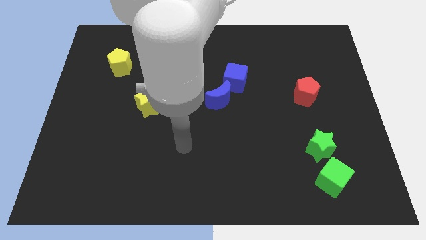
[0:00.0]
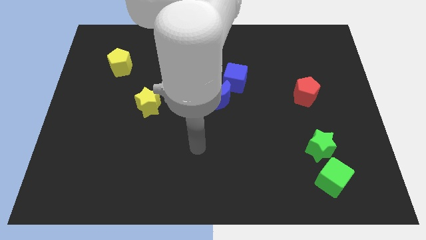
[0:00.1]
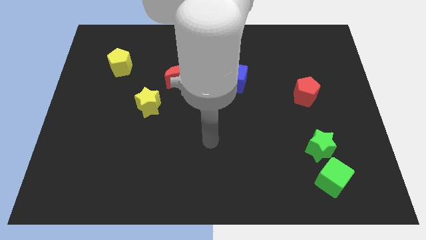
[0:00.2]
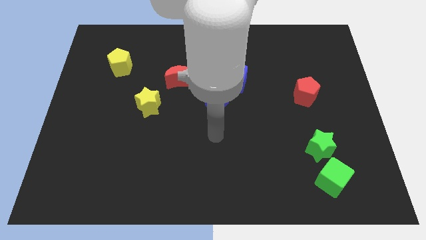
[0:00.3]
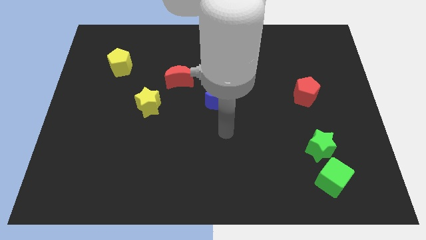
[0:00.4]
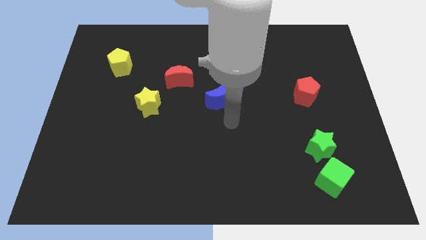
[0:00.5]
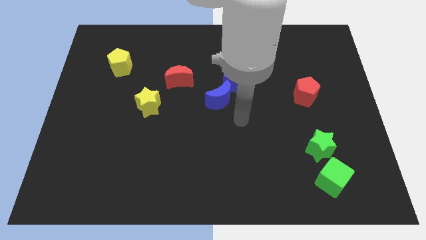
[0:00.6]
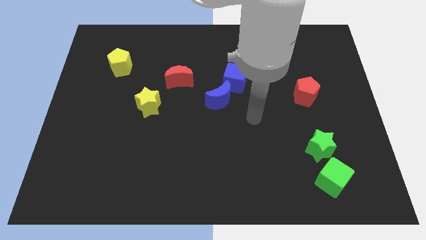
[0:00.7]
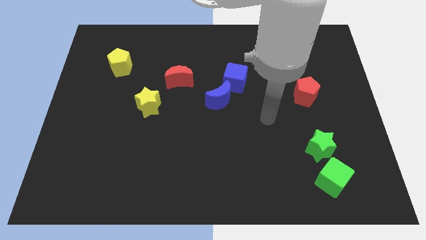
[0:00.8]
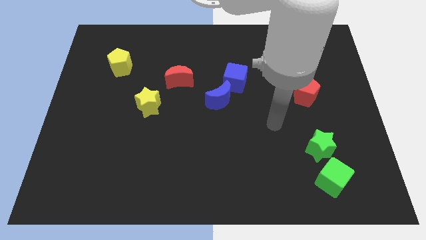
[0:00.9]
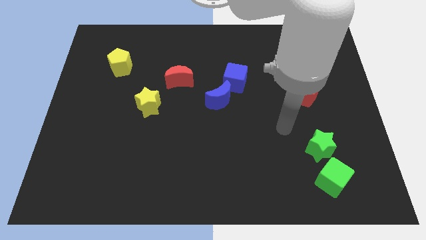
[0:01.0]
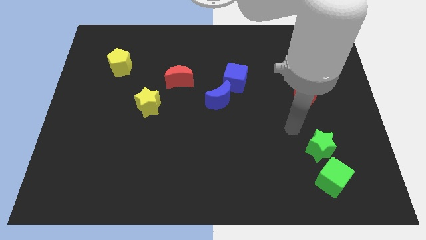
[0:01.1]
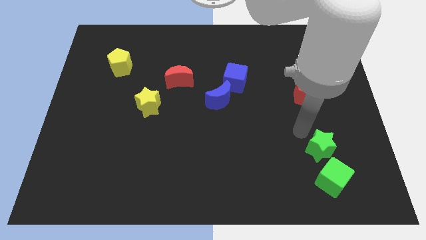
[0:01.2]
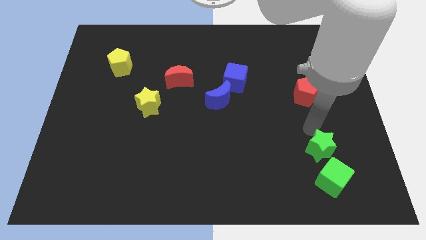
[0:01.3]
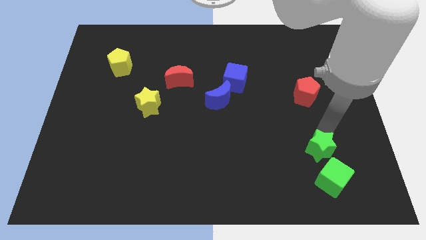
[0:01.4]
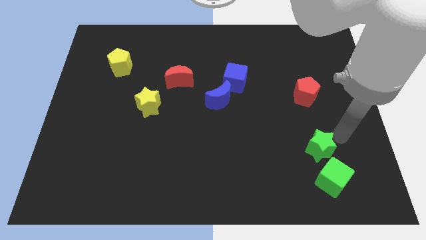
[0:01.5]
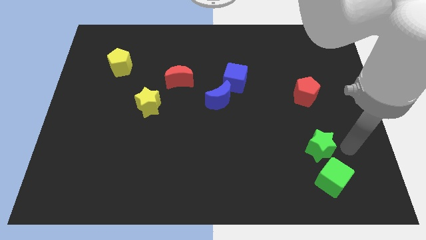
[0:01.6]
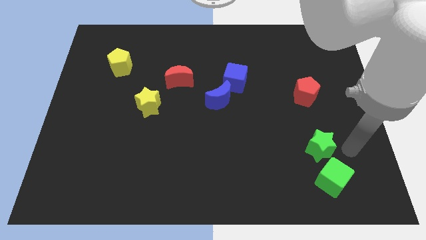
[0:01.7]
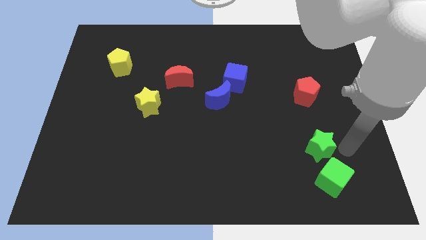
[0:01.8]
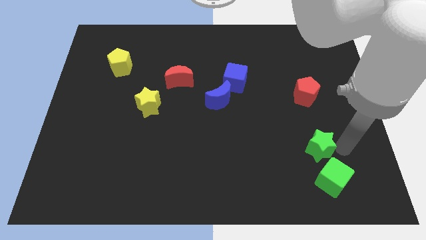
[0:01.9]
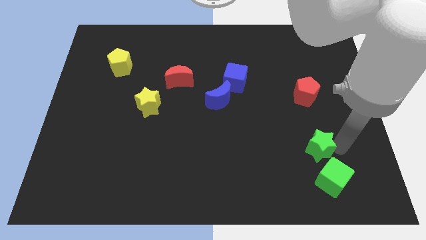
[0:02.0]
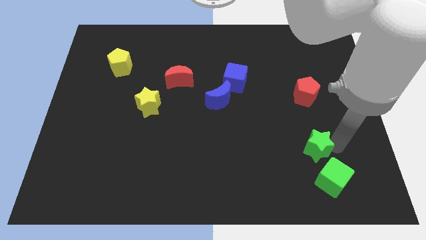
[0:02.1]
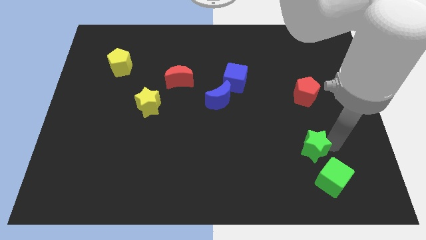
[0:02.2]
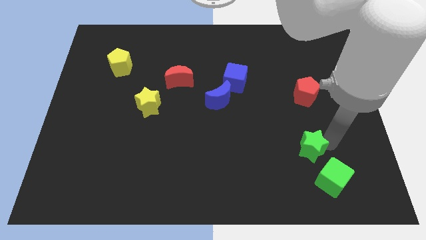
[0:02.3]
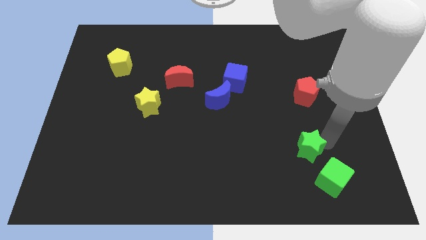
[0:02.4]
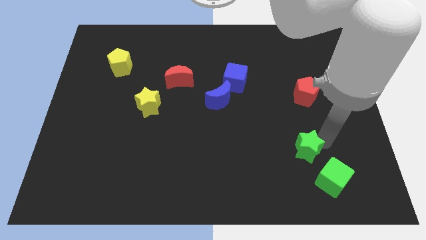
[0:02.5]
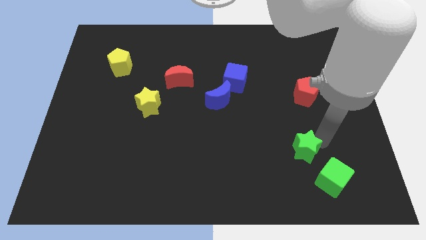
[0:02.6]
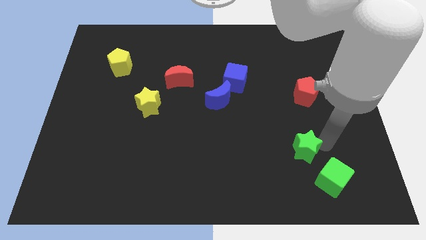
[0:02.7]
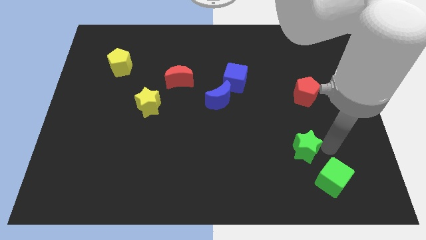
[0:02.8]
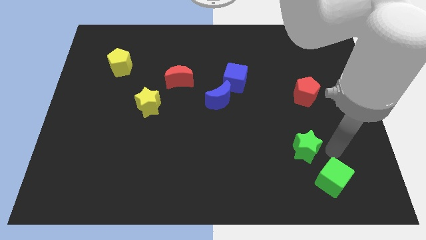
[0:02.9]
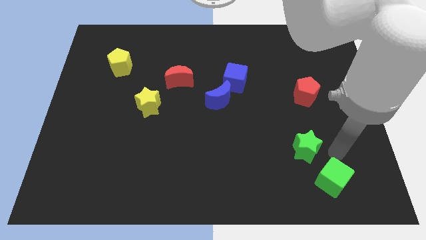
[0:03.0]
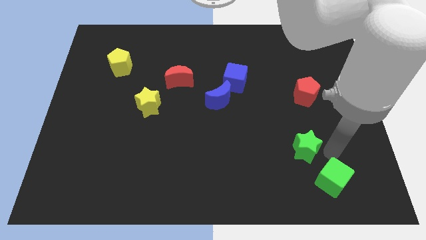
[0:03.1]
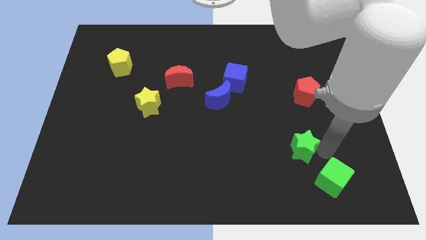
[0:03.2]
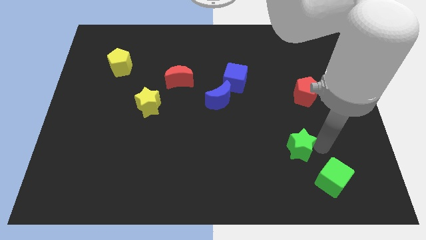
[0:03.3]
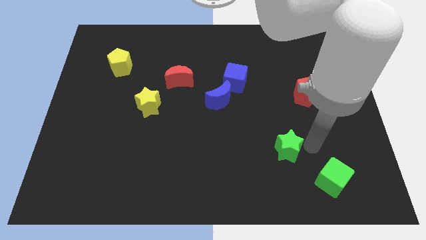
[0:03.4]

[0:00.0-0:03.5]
push the green star to the left a little bit

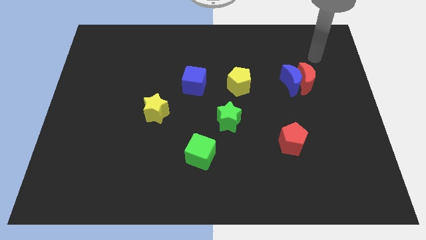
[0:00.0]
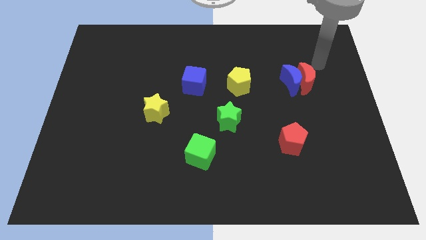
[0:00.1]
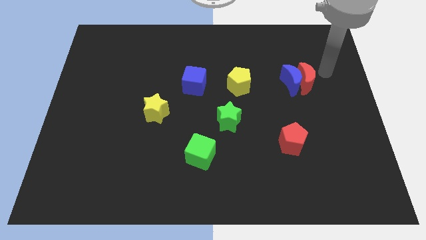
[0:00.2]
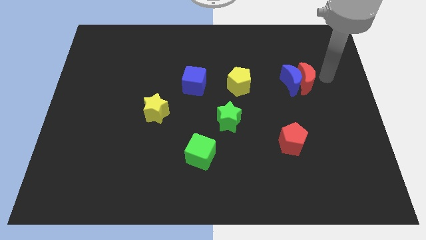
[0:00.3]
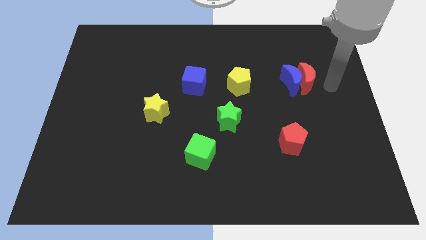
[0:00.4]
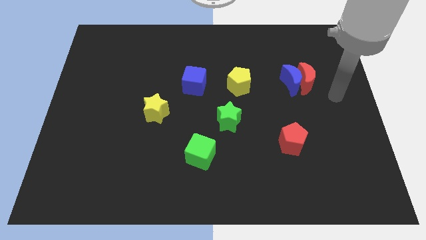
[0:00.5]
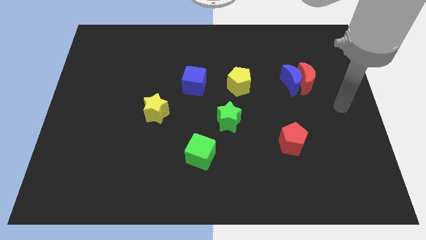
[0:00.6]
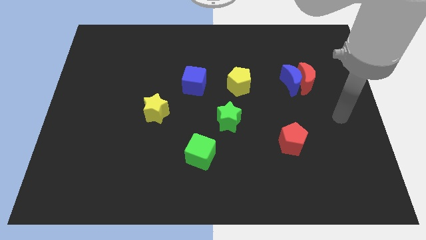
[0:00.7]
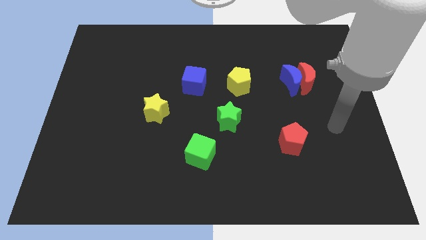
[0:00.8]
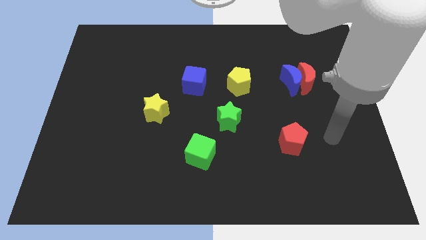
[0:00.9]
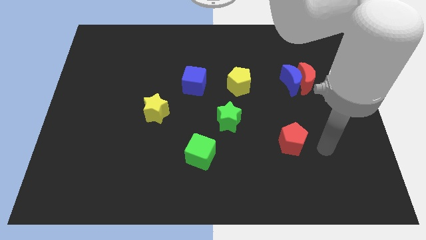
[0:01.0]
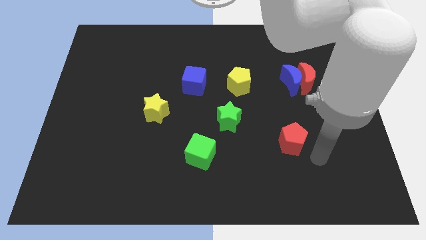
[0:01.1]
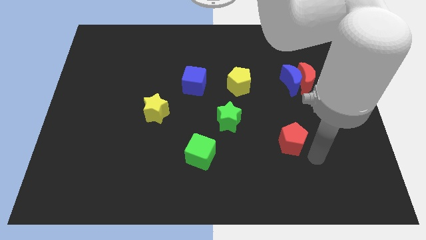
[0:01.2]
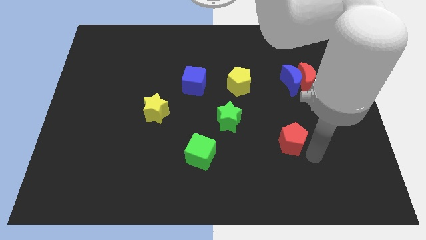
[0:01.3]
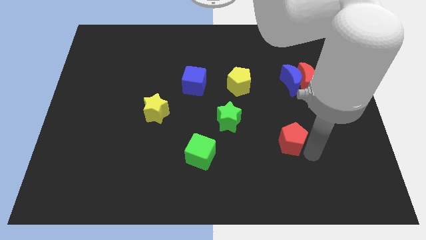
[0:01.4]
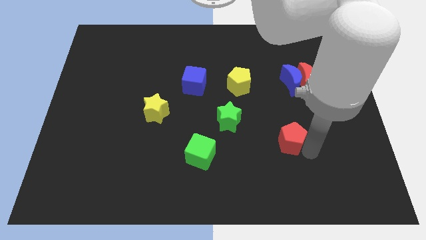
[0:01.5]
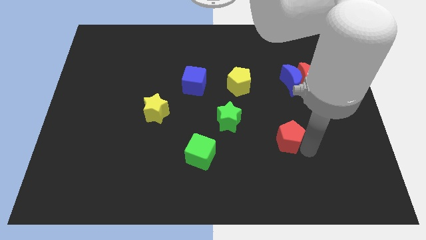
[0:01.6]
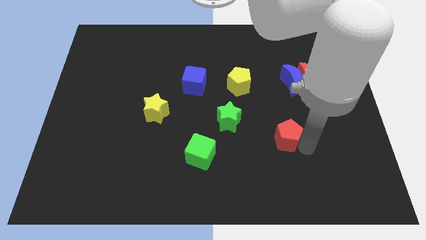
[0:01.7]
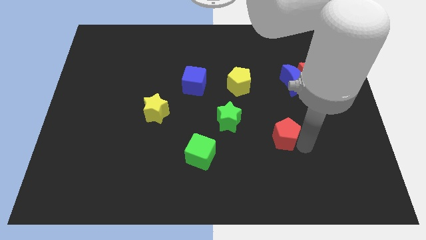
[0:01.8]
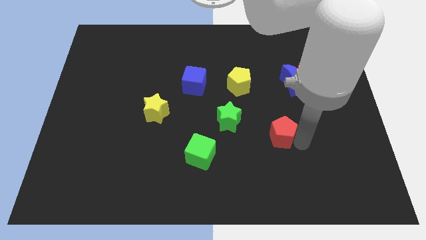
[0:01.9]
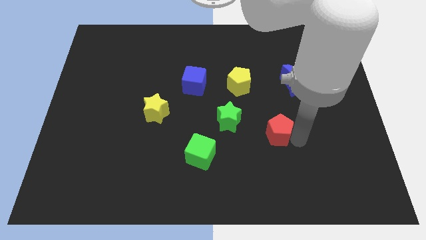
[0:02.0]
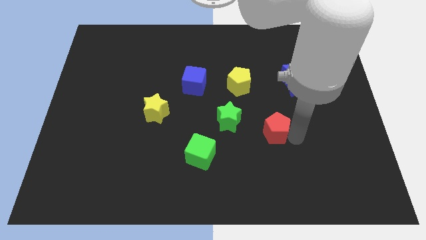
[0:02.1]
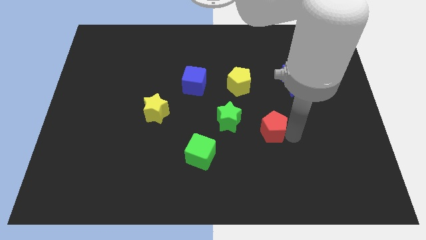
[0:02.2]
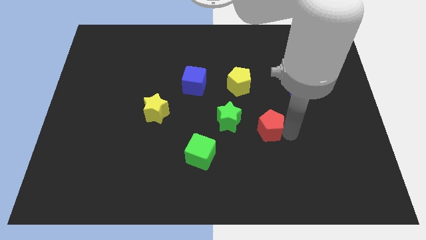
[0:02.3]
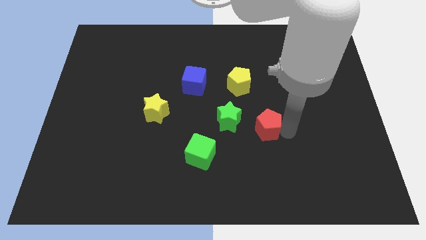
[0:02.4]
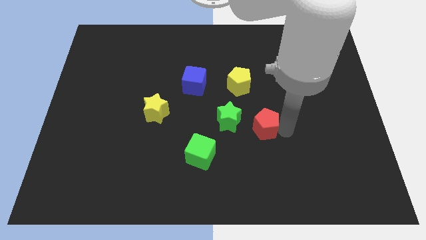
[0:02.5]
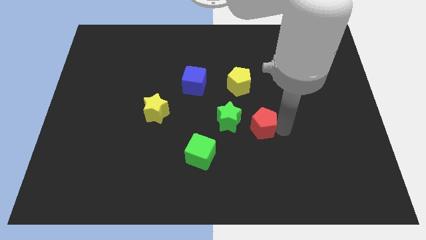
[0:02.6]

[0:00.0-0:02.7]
move the red pentagon upwards and then left a little

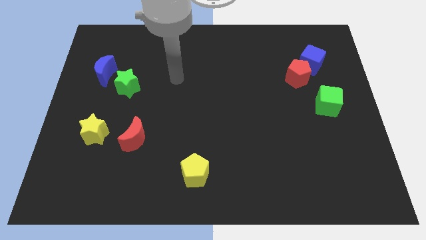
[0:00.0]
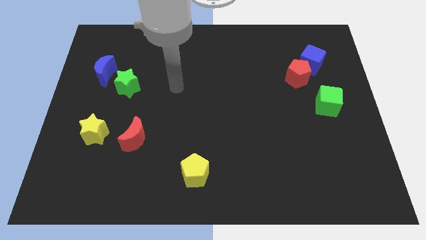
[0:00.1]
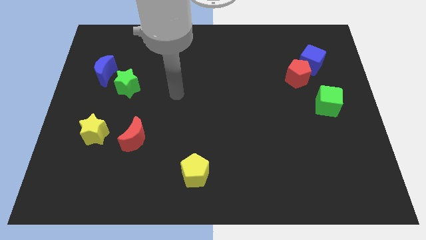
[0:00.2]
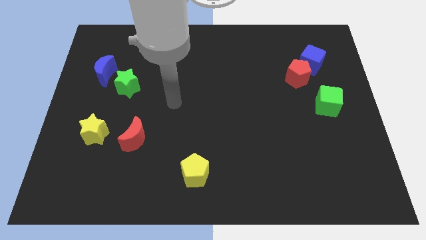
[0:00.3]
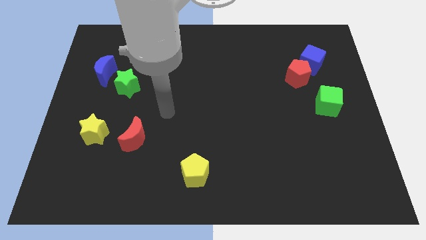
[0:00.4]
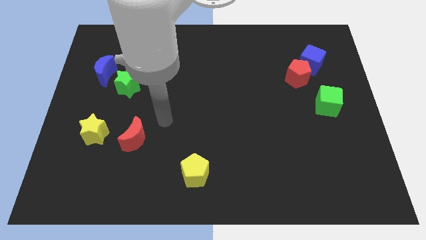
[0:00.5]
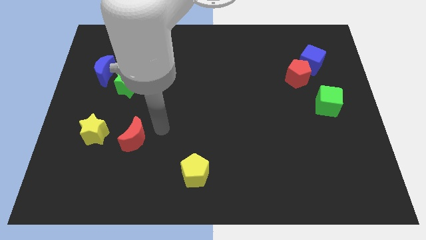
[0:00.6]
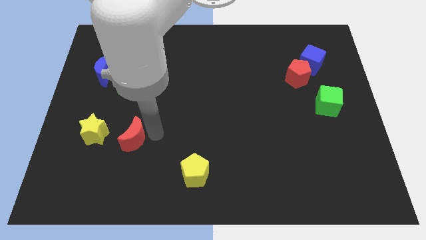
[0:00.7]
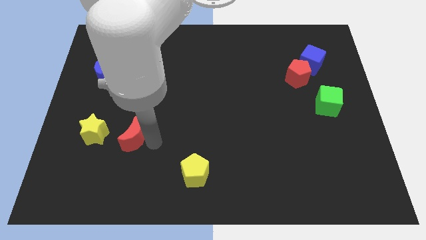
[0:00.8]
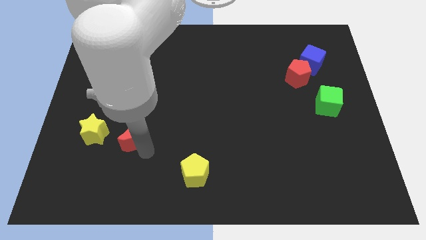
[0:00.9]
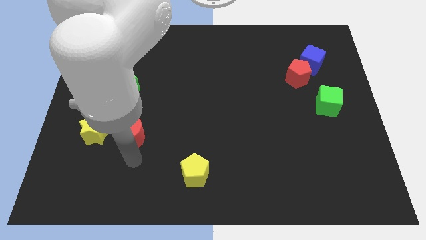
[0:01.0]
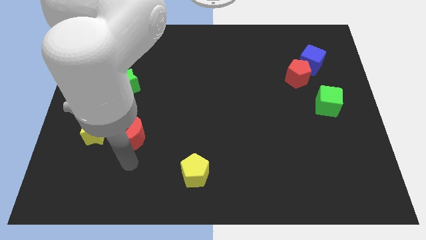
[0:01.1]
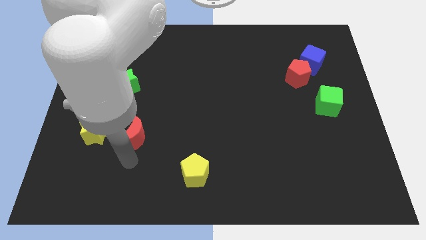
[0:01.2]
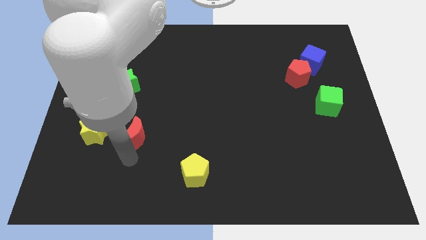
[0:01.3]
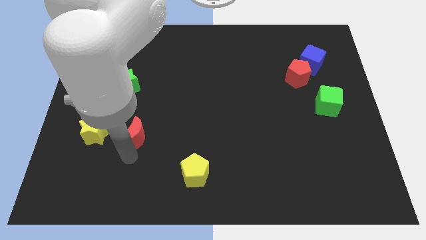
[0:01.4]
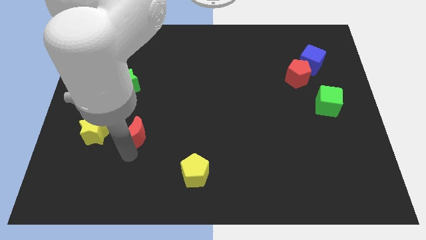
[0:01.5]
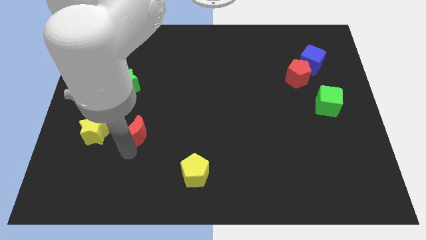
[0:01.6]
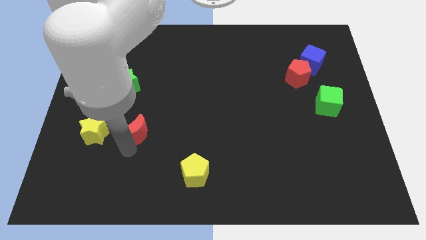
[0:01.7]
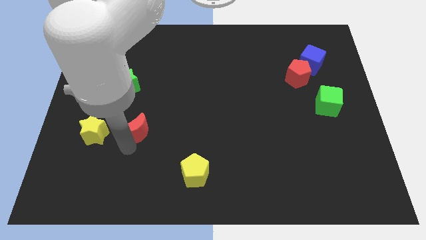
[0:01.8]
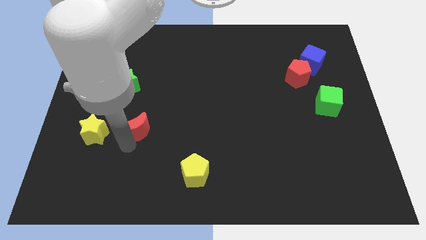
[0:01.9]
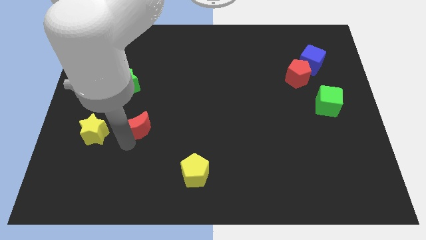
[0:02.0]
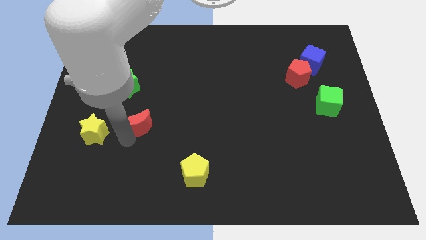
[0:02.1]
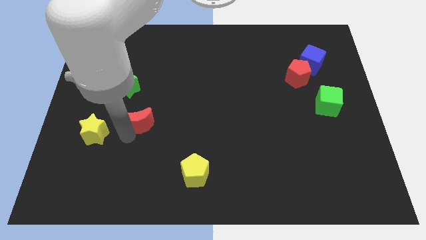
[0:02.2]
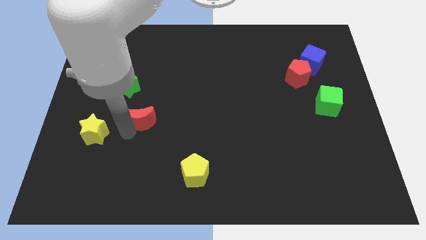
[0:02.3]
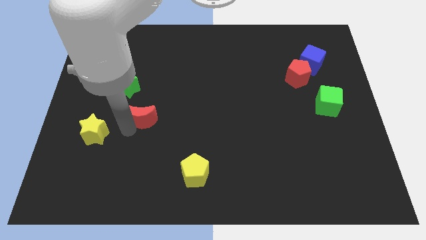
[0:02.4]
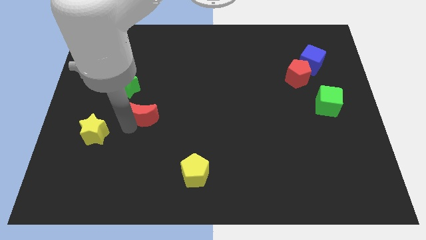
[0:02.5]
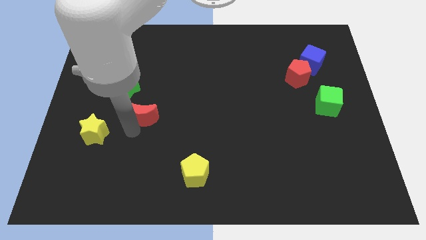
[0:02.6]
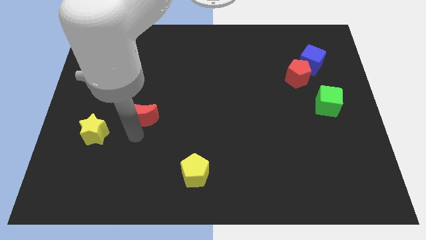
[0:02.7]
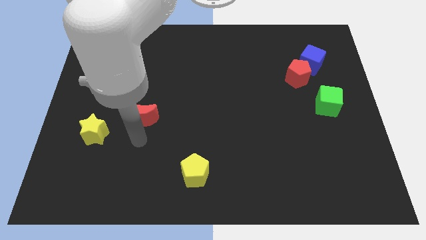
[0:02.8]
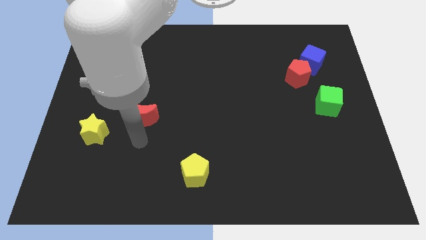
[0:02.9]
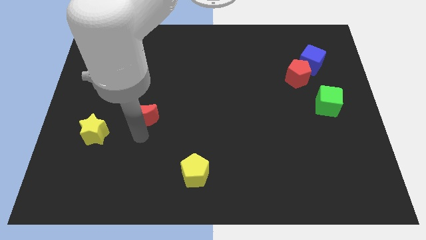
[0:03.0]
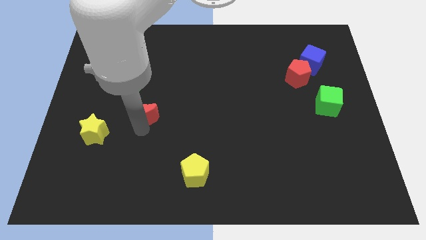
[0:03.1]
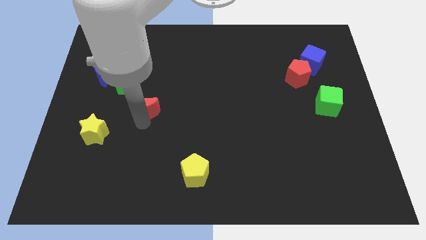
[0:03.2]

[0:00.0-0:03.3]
slightly push the red moon up
